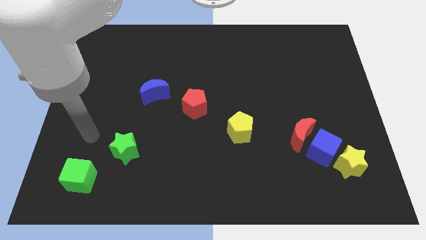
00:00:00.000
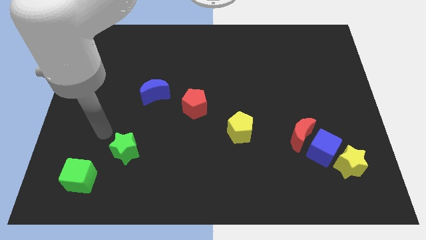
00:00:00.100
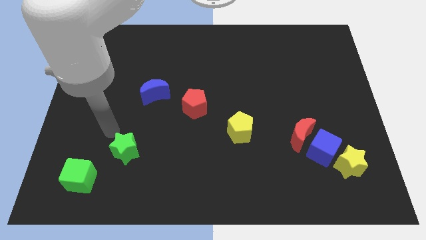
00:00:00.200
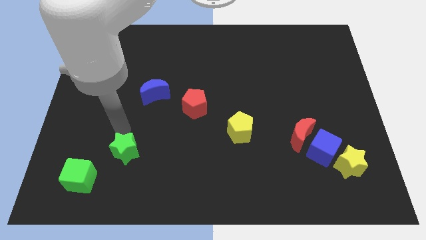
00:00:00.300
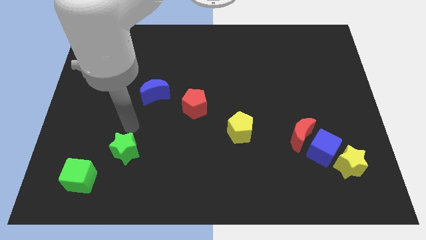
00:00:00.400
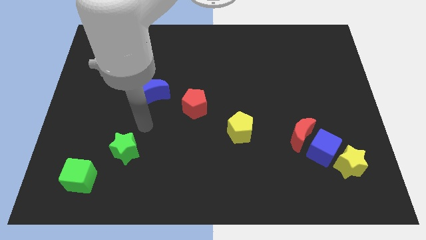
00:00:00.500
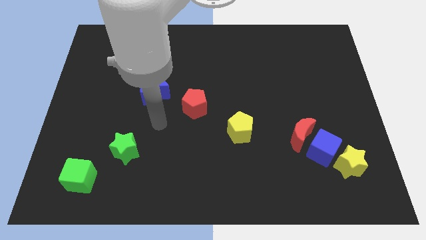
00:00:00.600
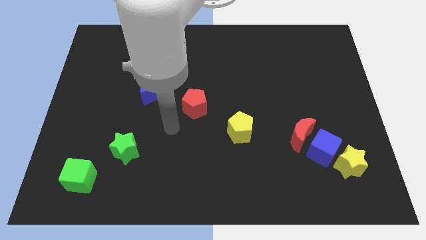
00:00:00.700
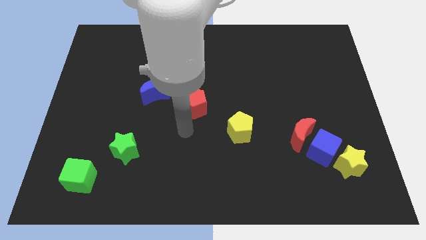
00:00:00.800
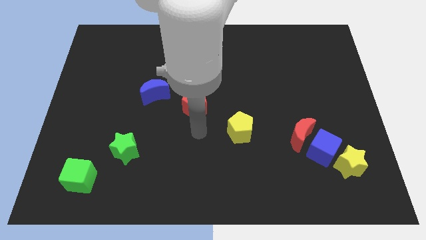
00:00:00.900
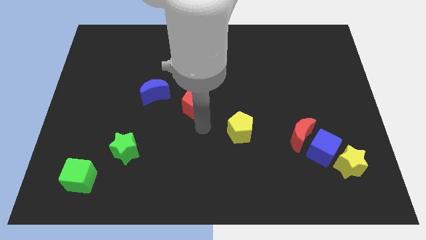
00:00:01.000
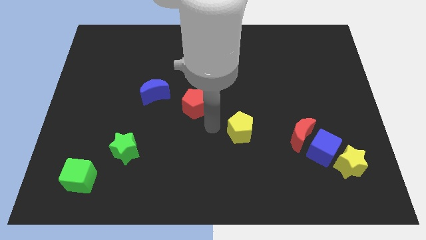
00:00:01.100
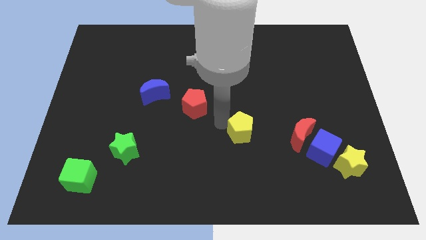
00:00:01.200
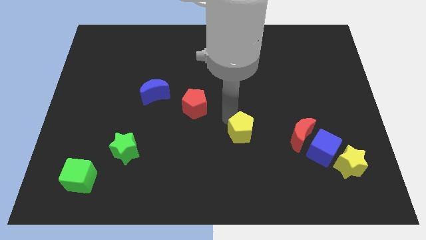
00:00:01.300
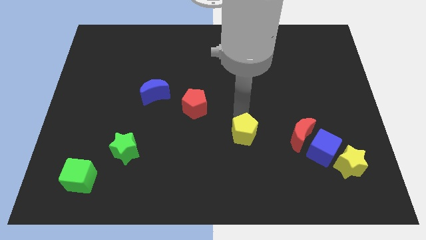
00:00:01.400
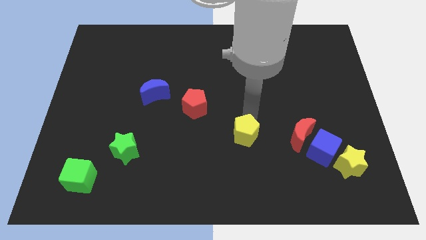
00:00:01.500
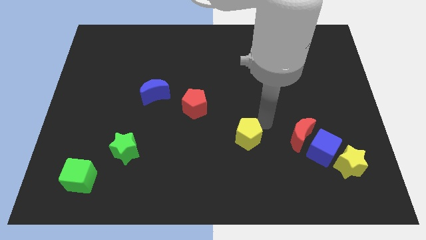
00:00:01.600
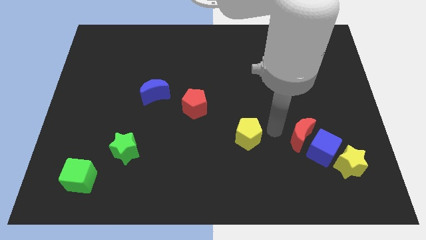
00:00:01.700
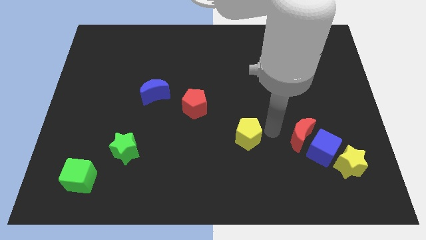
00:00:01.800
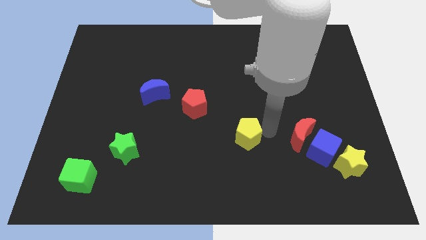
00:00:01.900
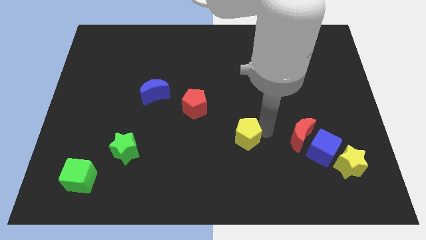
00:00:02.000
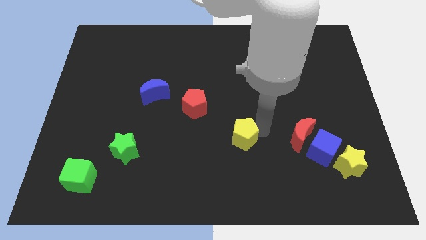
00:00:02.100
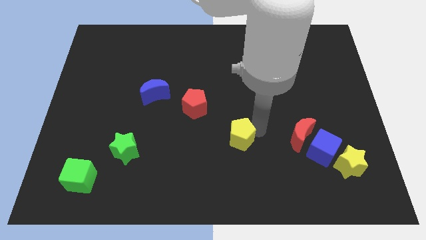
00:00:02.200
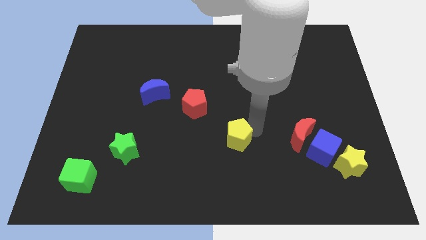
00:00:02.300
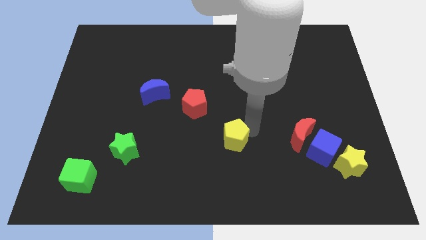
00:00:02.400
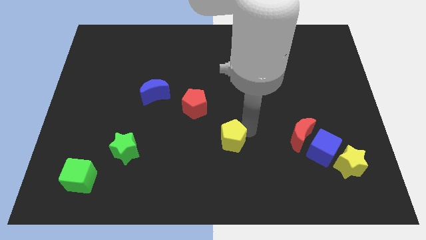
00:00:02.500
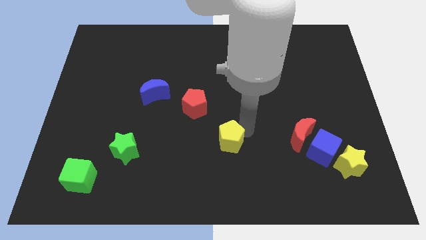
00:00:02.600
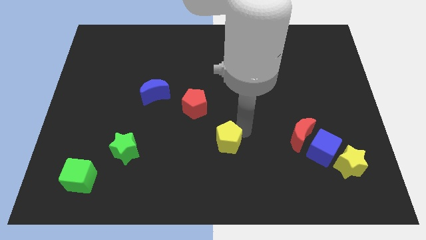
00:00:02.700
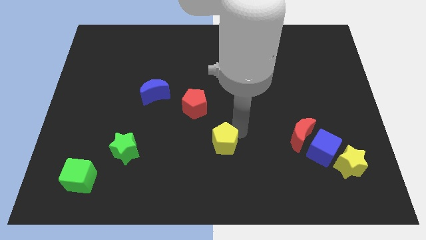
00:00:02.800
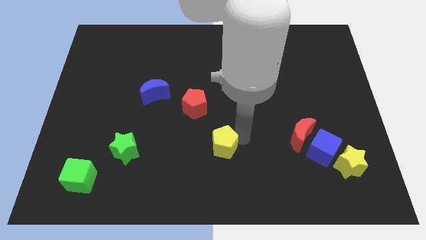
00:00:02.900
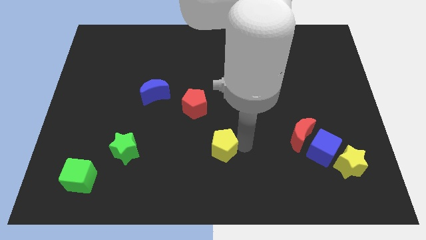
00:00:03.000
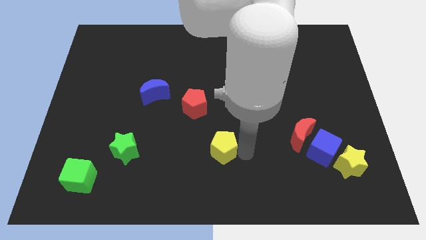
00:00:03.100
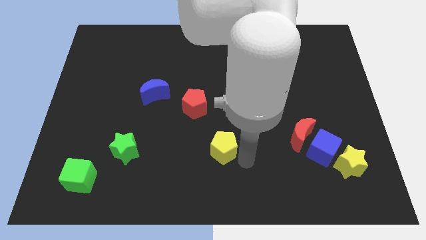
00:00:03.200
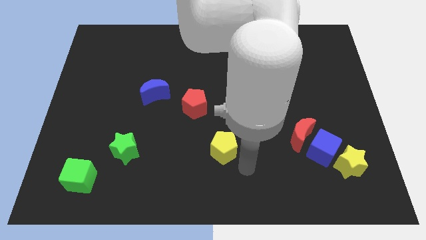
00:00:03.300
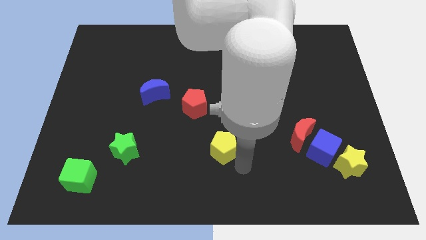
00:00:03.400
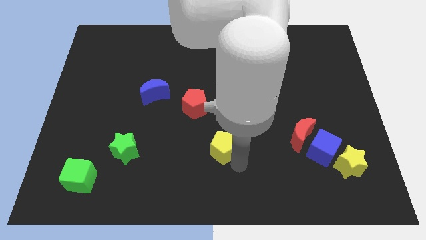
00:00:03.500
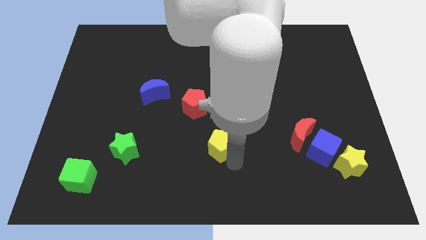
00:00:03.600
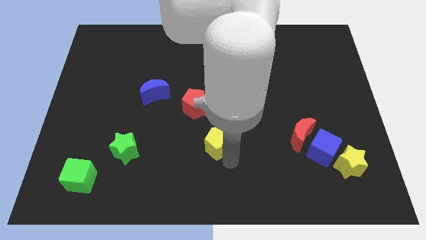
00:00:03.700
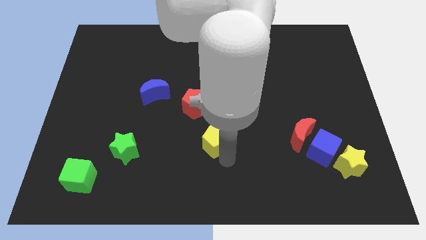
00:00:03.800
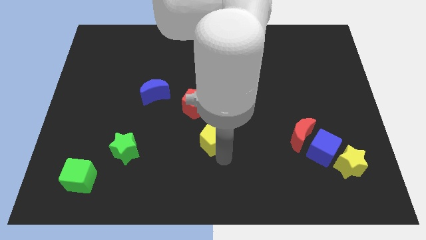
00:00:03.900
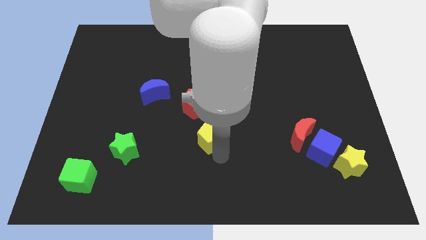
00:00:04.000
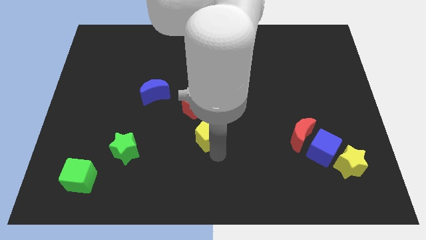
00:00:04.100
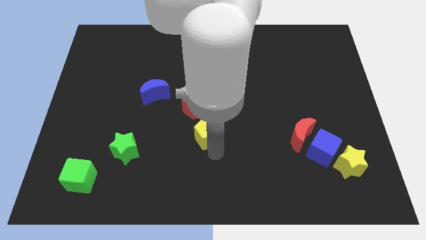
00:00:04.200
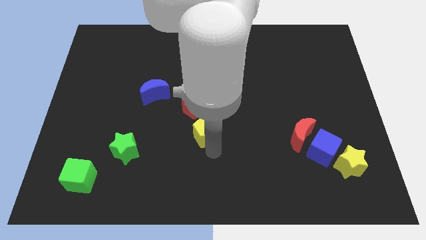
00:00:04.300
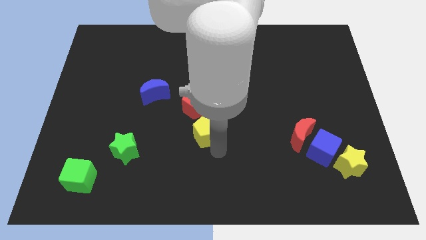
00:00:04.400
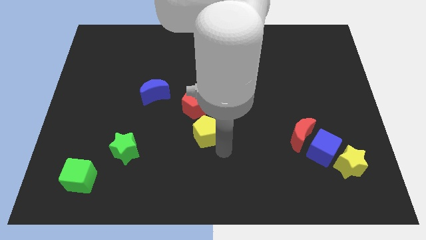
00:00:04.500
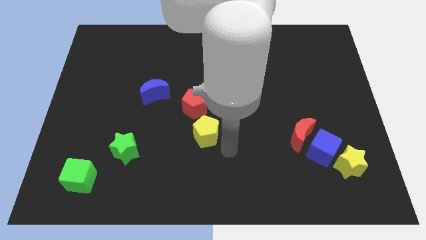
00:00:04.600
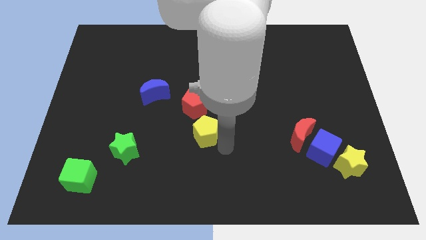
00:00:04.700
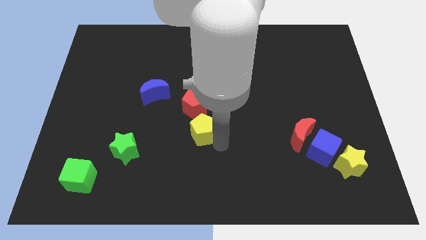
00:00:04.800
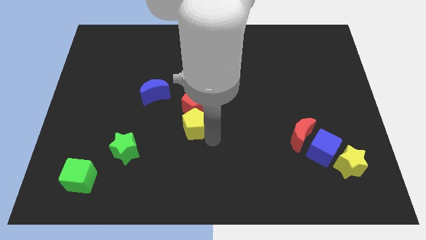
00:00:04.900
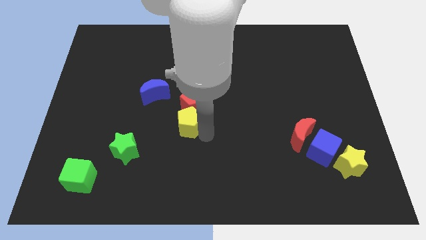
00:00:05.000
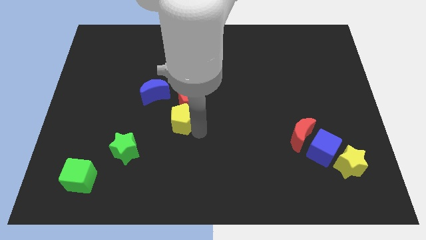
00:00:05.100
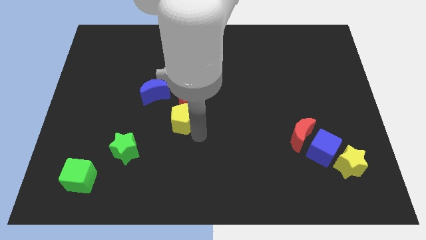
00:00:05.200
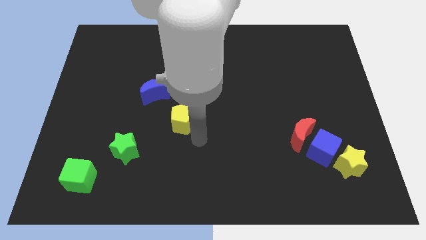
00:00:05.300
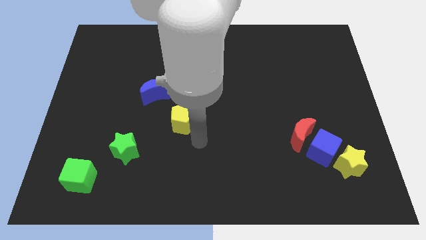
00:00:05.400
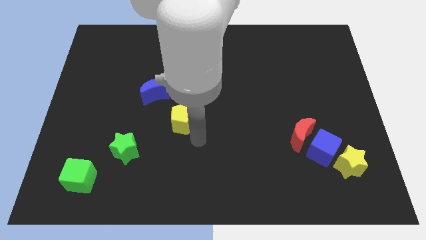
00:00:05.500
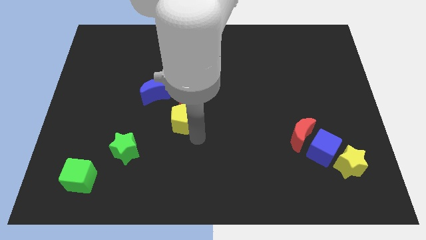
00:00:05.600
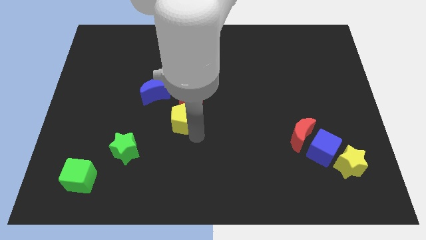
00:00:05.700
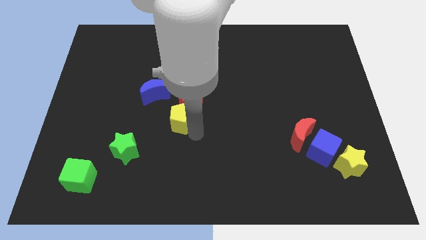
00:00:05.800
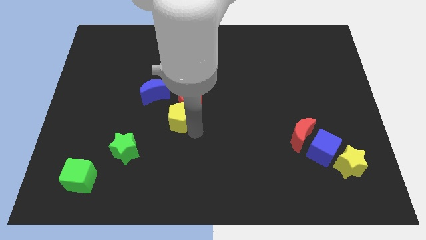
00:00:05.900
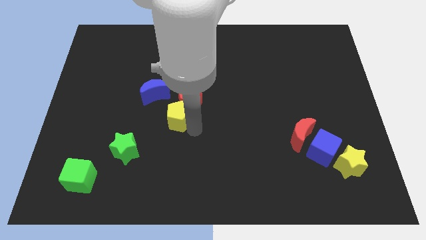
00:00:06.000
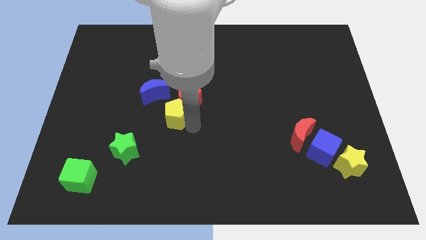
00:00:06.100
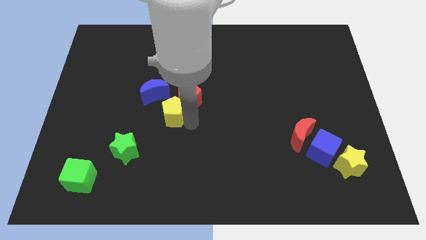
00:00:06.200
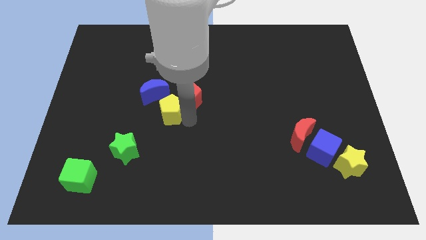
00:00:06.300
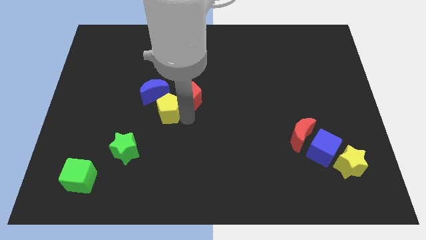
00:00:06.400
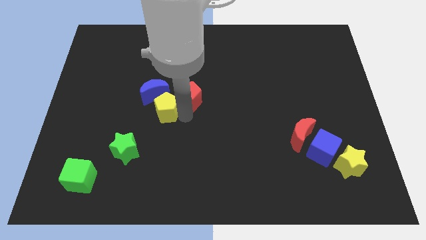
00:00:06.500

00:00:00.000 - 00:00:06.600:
move the yellow pentagon towards the blue moon

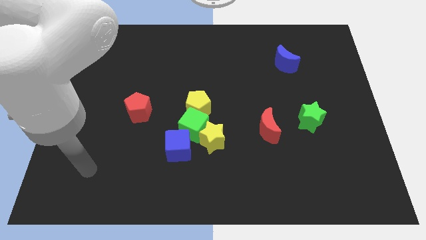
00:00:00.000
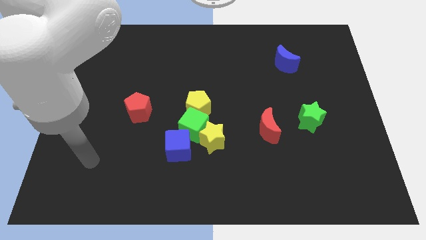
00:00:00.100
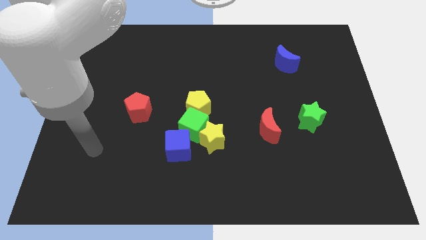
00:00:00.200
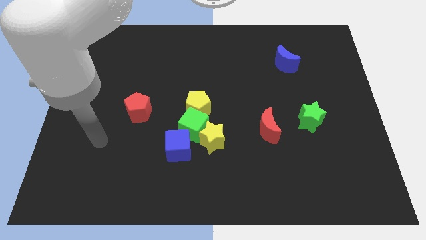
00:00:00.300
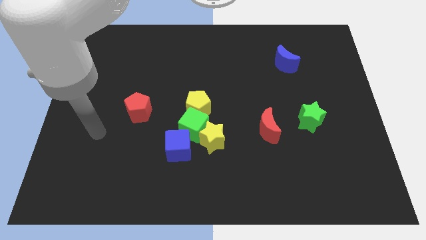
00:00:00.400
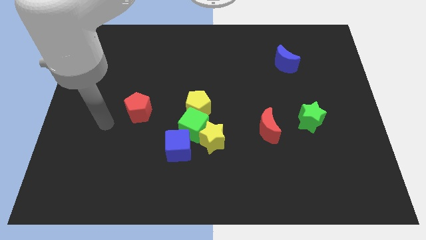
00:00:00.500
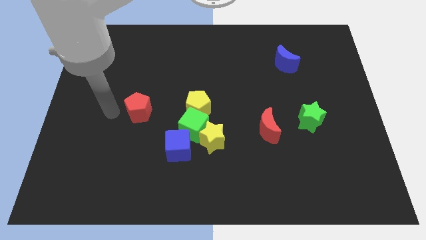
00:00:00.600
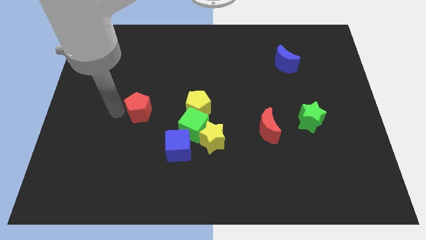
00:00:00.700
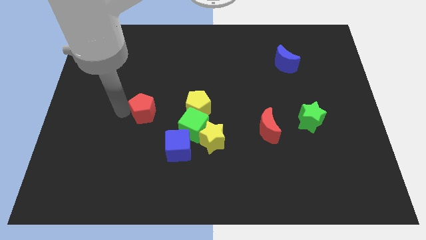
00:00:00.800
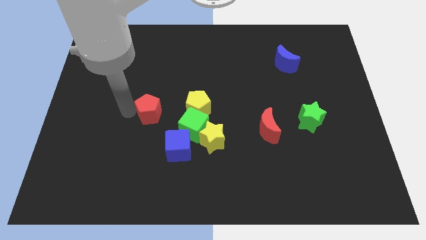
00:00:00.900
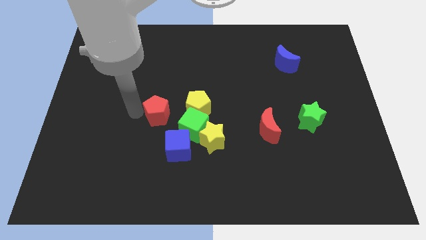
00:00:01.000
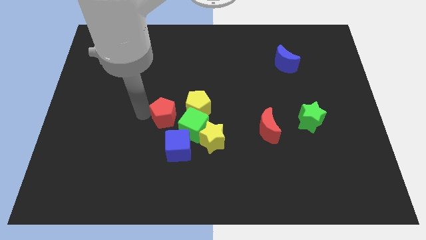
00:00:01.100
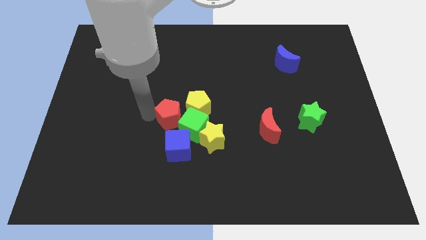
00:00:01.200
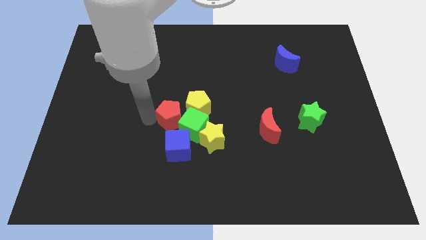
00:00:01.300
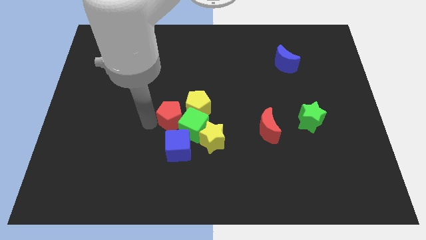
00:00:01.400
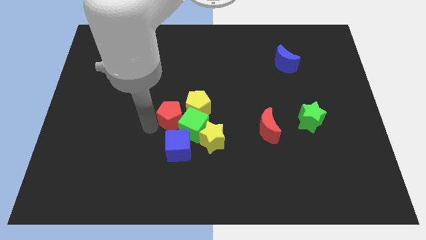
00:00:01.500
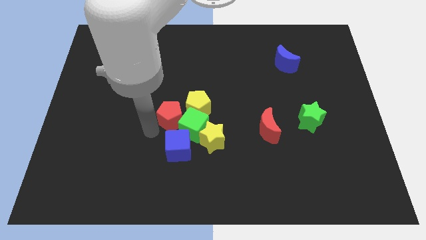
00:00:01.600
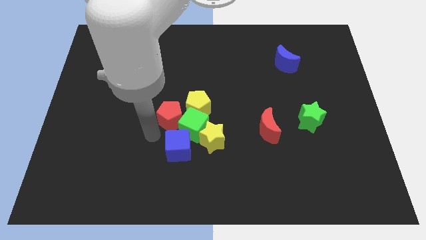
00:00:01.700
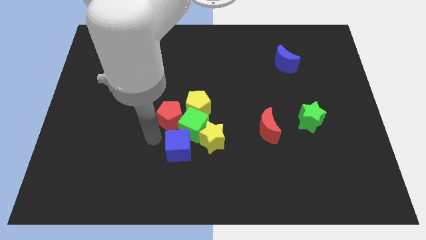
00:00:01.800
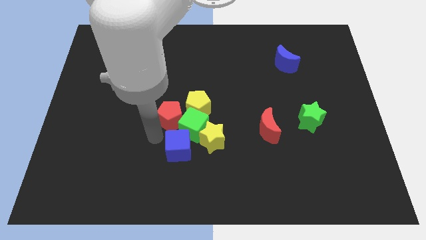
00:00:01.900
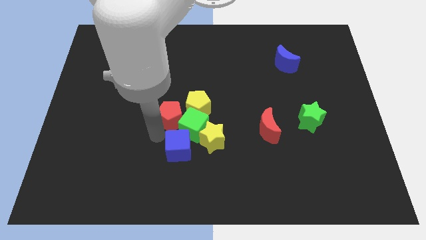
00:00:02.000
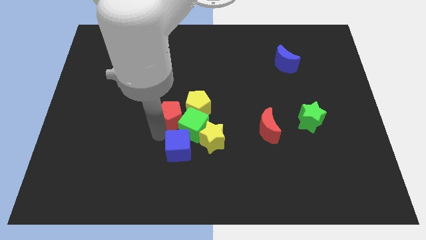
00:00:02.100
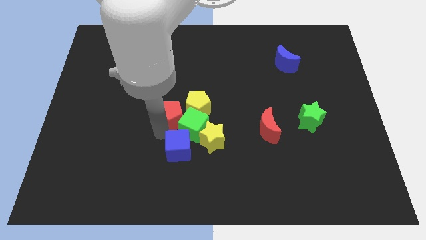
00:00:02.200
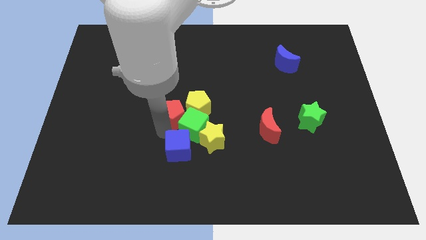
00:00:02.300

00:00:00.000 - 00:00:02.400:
slide the red pentagon next to the yellow pentagon
